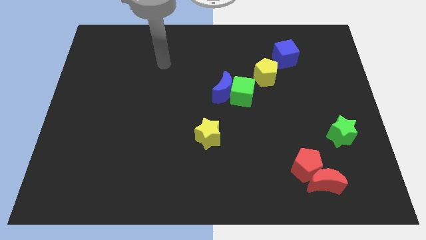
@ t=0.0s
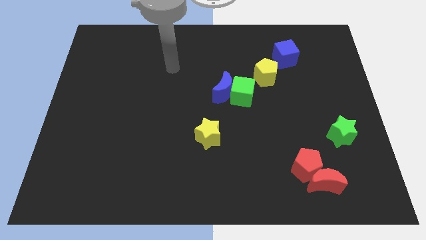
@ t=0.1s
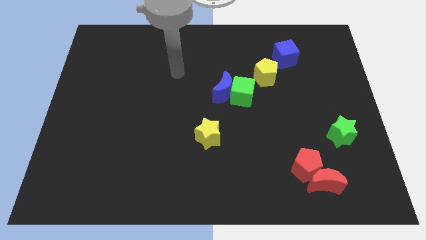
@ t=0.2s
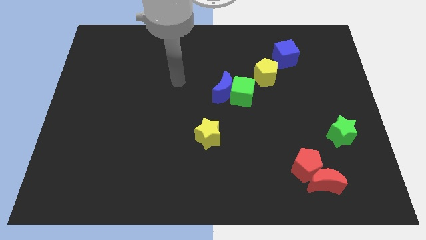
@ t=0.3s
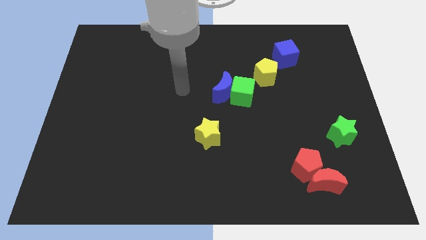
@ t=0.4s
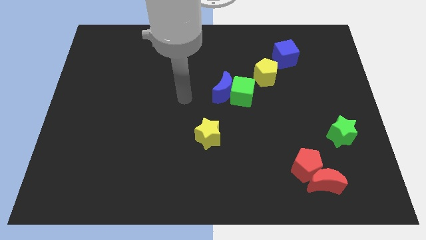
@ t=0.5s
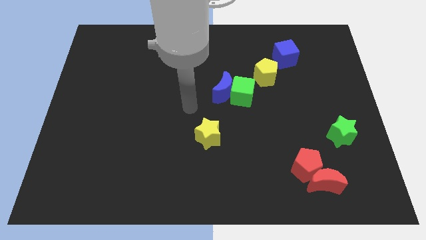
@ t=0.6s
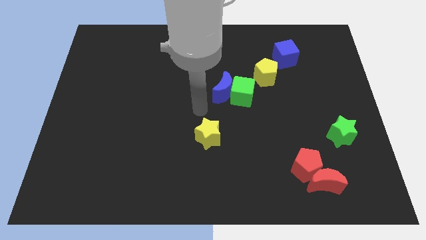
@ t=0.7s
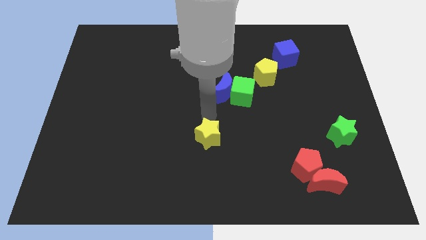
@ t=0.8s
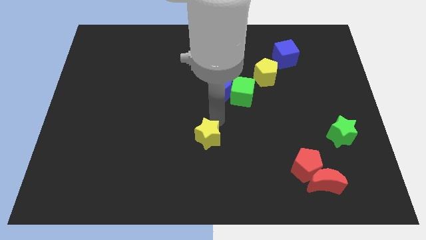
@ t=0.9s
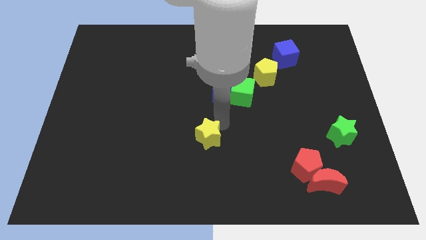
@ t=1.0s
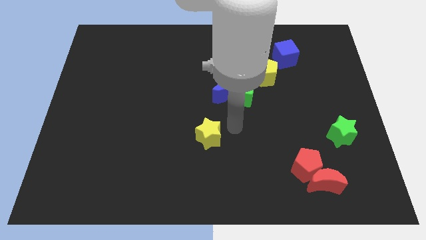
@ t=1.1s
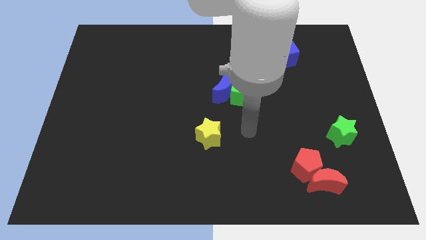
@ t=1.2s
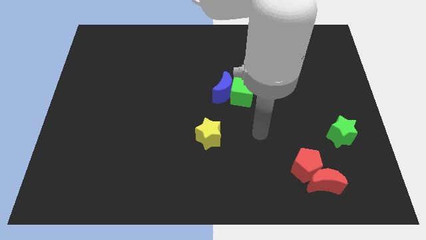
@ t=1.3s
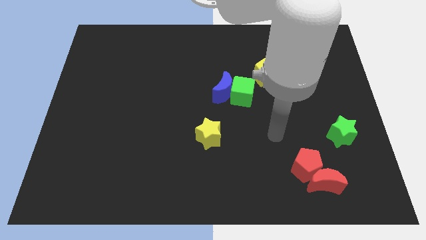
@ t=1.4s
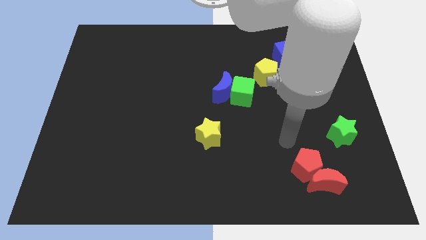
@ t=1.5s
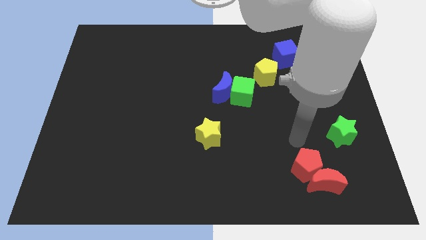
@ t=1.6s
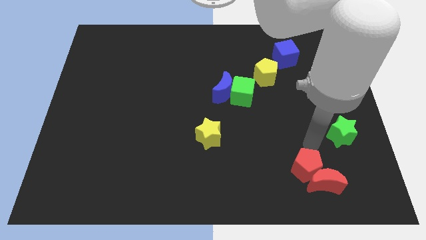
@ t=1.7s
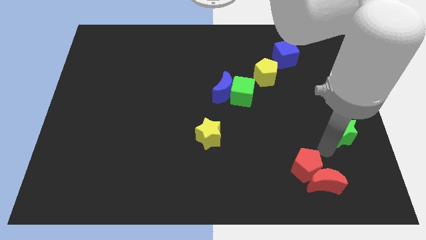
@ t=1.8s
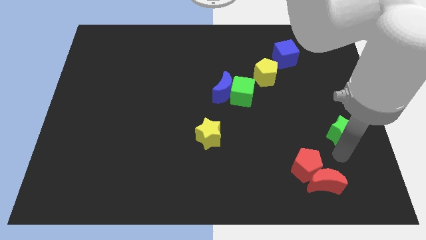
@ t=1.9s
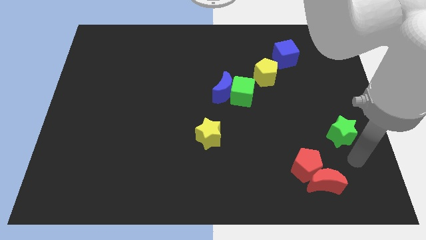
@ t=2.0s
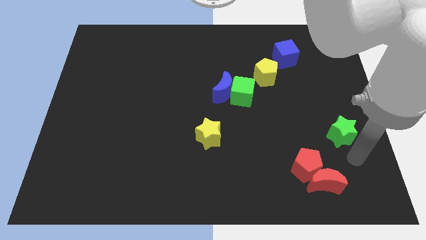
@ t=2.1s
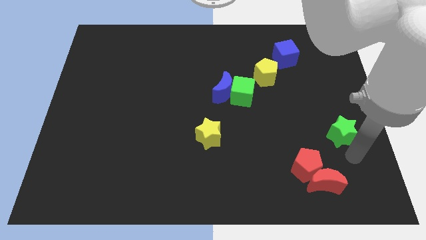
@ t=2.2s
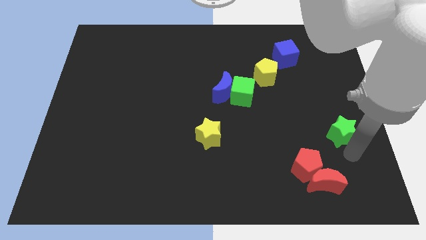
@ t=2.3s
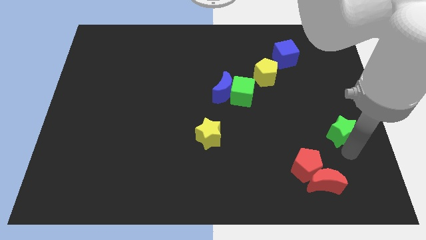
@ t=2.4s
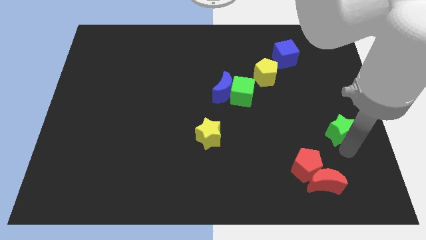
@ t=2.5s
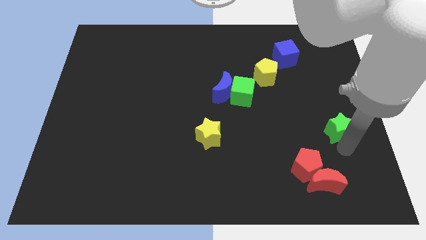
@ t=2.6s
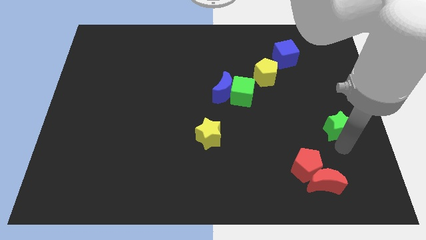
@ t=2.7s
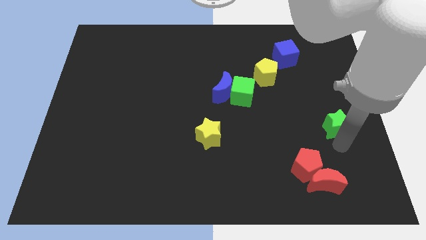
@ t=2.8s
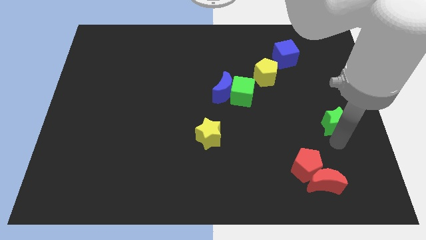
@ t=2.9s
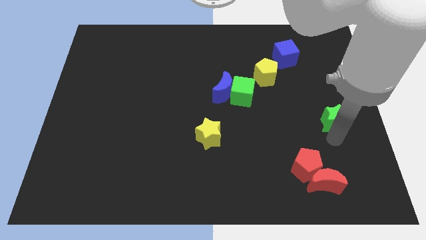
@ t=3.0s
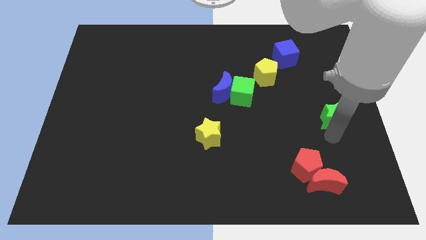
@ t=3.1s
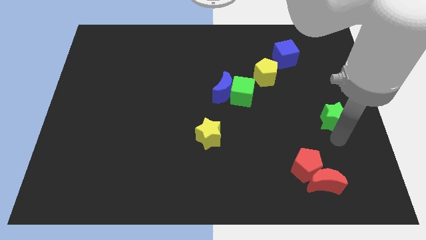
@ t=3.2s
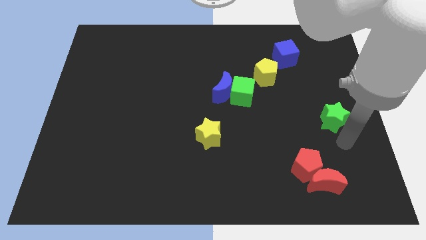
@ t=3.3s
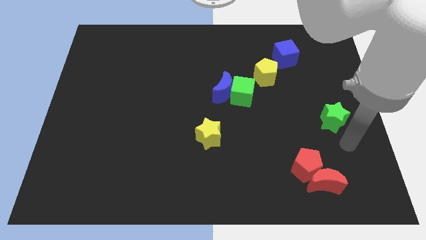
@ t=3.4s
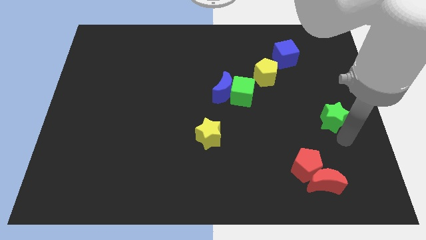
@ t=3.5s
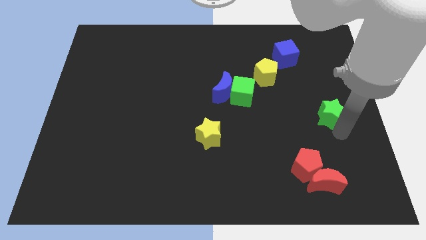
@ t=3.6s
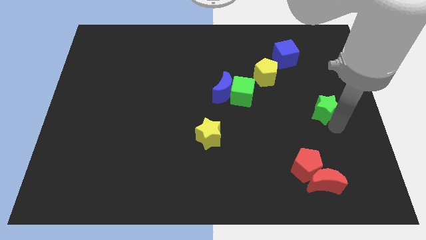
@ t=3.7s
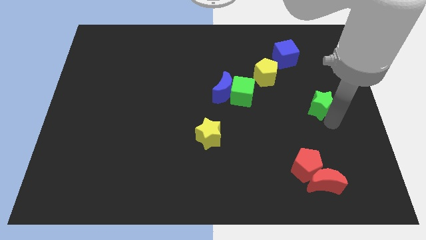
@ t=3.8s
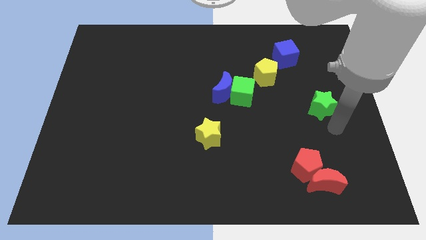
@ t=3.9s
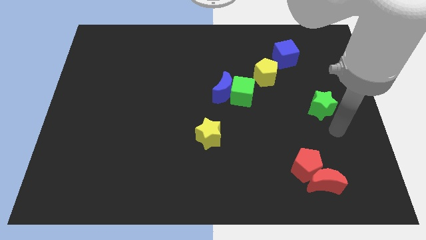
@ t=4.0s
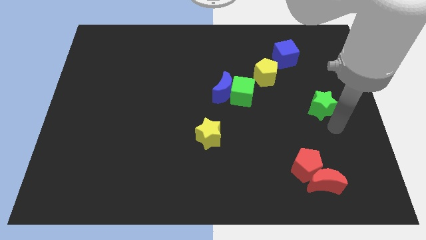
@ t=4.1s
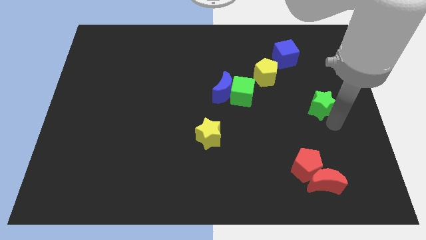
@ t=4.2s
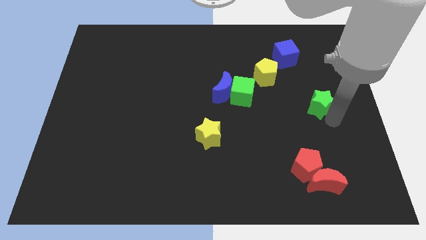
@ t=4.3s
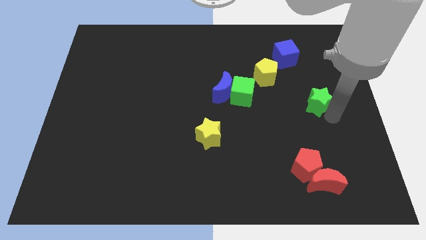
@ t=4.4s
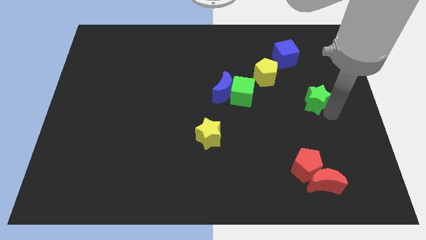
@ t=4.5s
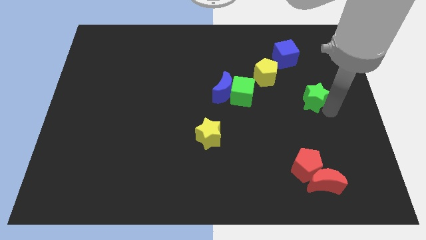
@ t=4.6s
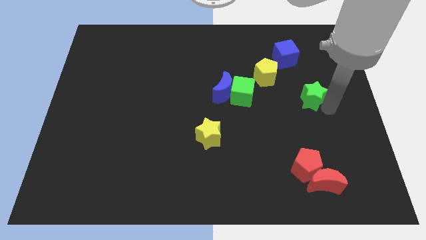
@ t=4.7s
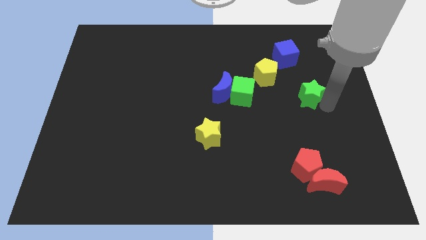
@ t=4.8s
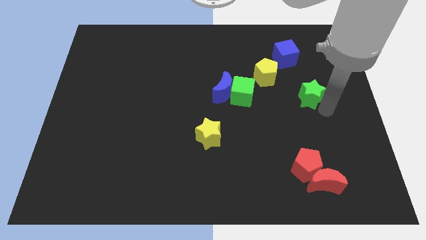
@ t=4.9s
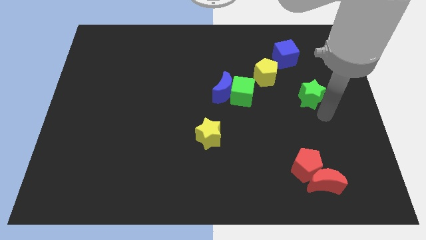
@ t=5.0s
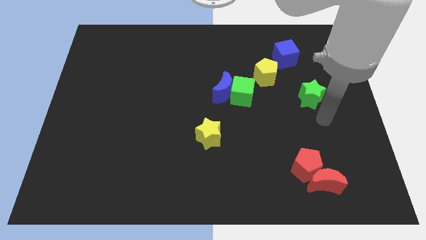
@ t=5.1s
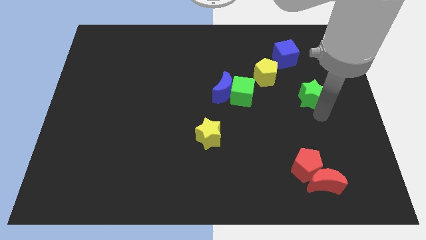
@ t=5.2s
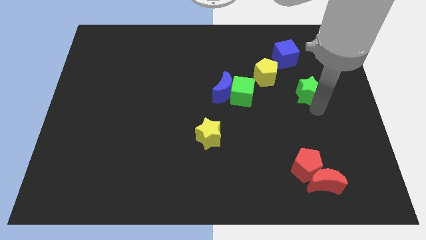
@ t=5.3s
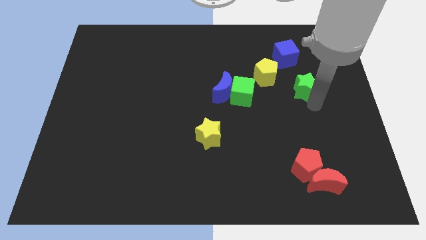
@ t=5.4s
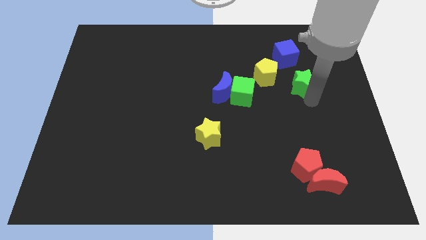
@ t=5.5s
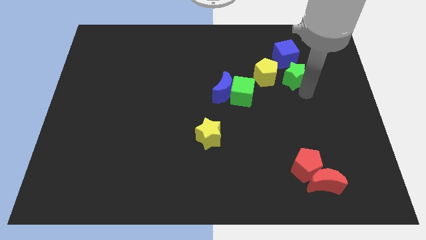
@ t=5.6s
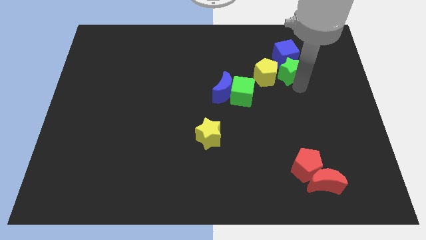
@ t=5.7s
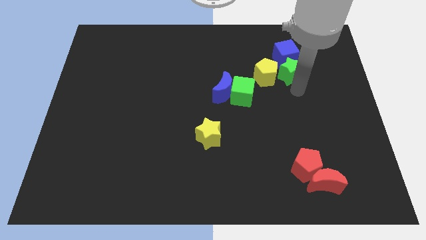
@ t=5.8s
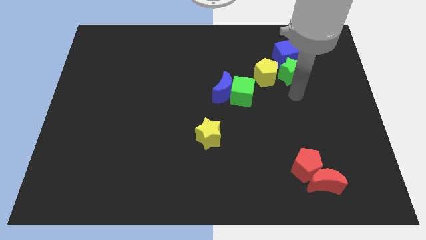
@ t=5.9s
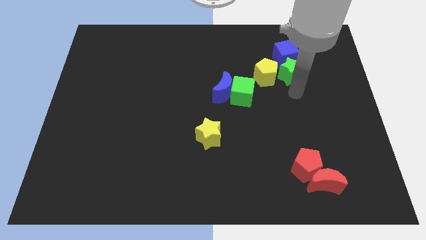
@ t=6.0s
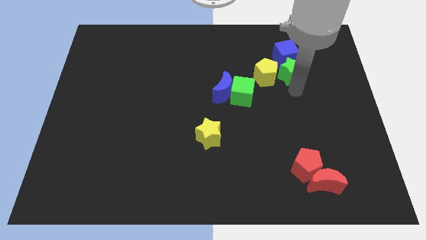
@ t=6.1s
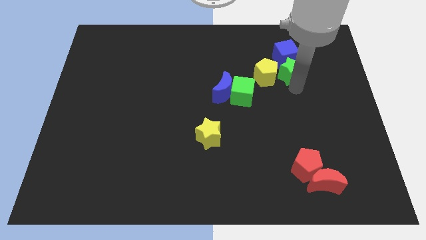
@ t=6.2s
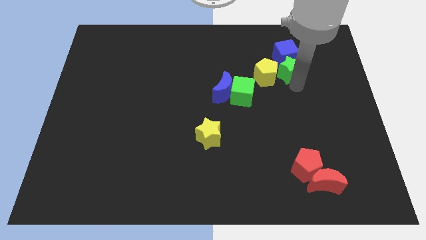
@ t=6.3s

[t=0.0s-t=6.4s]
slide the green star close to the blue cube
